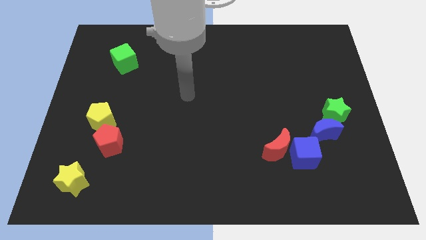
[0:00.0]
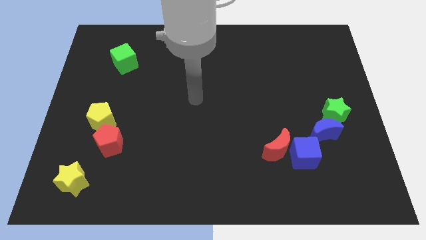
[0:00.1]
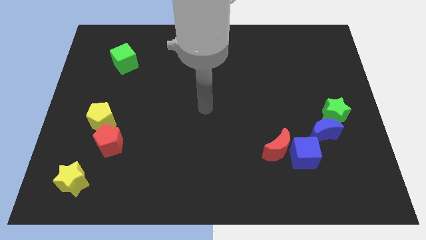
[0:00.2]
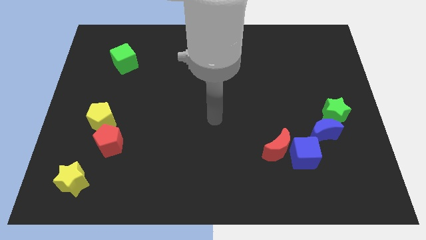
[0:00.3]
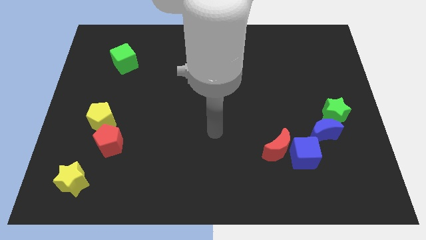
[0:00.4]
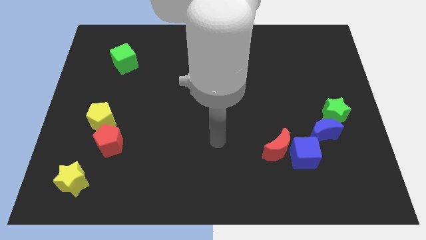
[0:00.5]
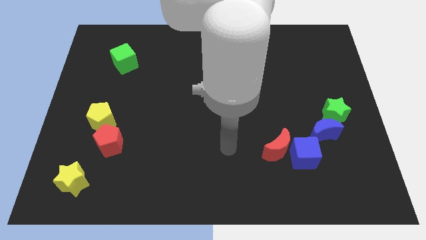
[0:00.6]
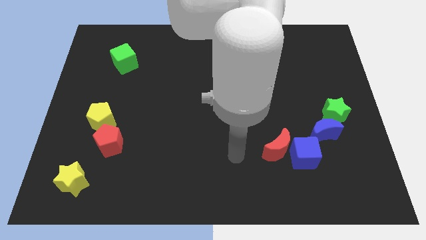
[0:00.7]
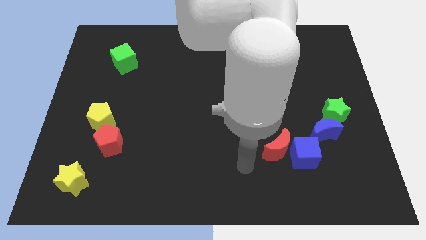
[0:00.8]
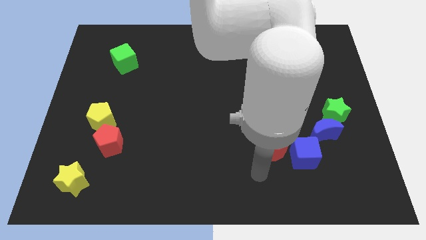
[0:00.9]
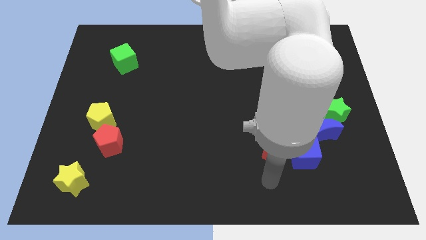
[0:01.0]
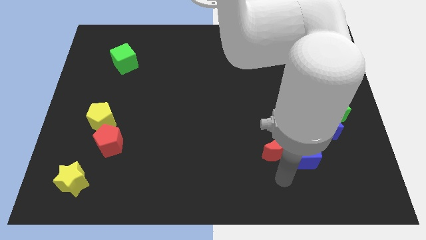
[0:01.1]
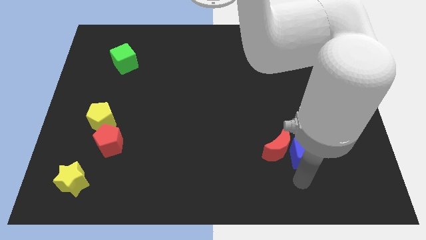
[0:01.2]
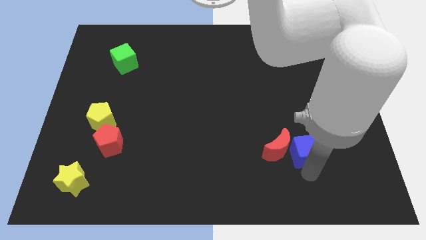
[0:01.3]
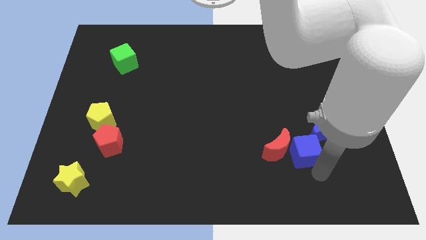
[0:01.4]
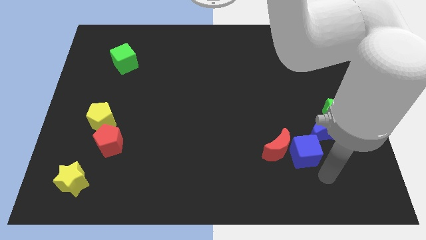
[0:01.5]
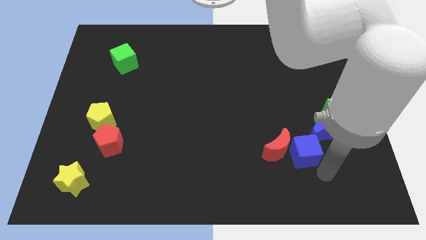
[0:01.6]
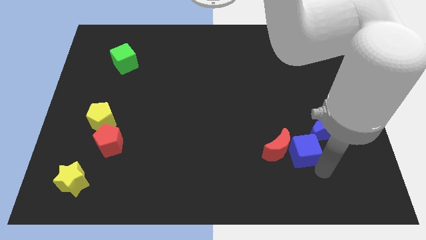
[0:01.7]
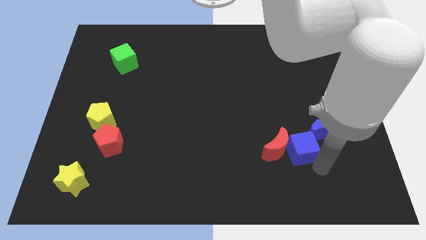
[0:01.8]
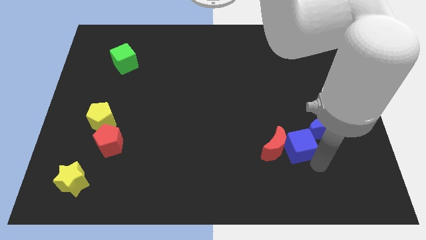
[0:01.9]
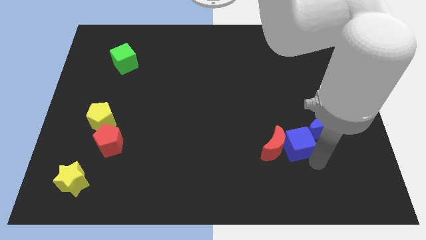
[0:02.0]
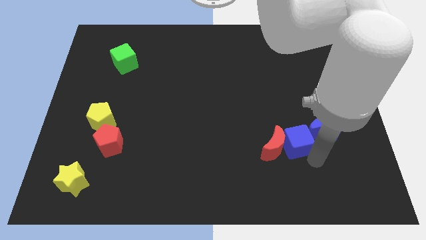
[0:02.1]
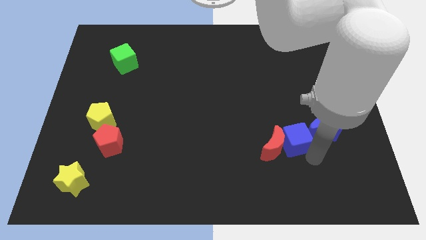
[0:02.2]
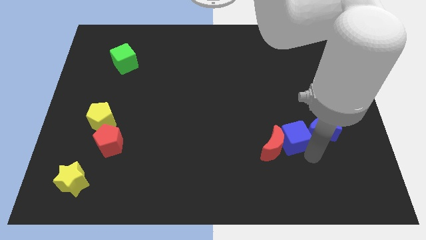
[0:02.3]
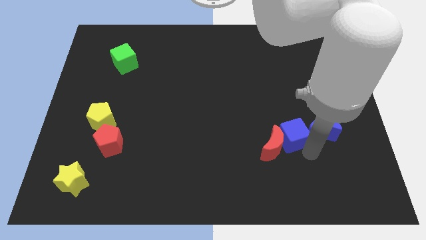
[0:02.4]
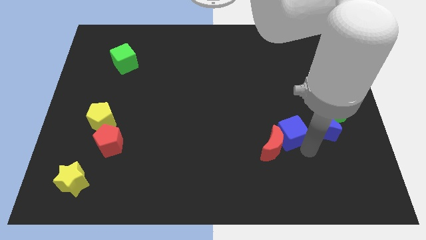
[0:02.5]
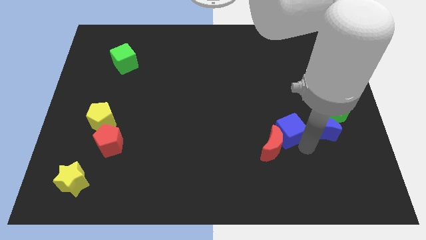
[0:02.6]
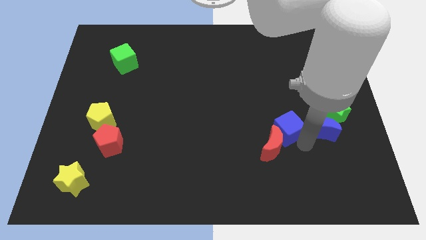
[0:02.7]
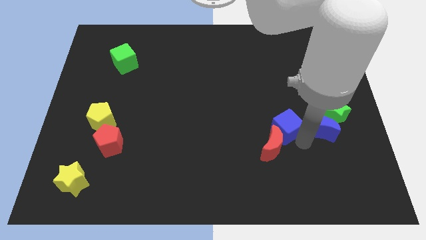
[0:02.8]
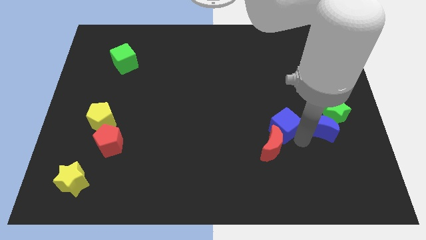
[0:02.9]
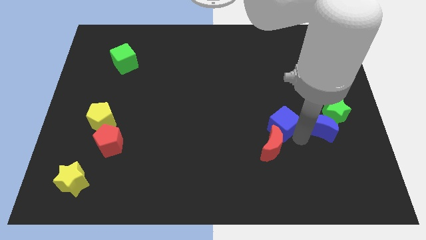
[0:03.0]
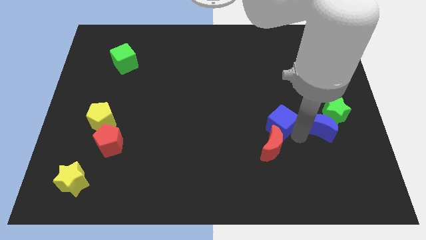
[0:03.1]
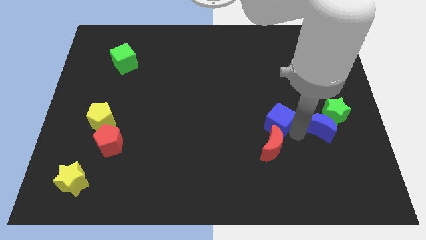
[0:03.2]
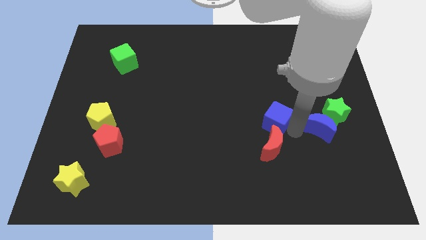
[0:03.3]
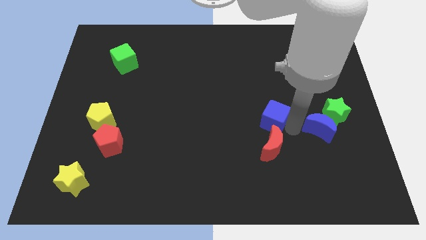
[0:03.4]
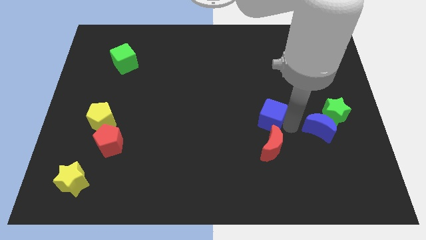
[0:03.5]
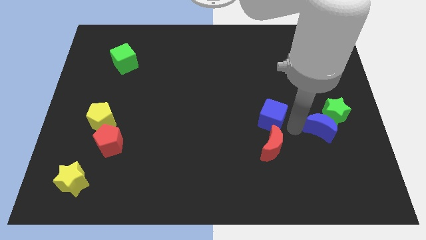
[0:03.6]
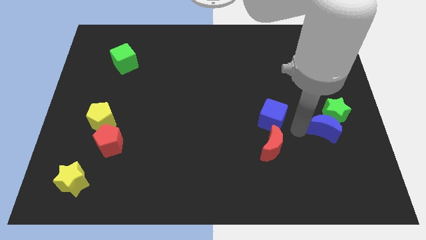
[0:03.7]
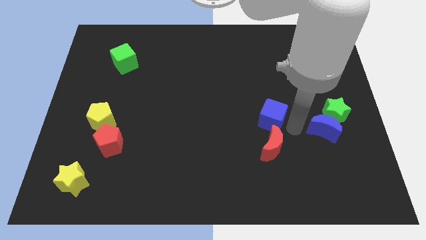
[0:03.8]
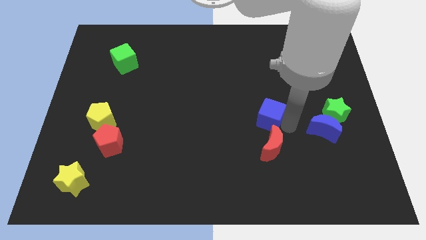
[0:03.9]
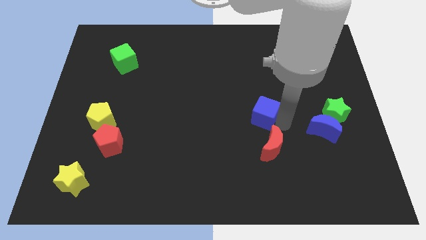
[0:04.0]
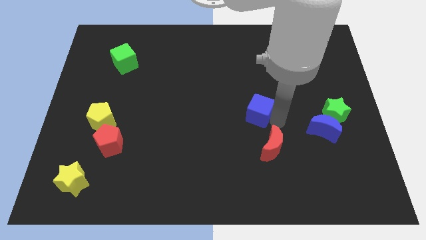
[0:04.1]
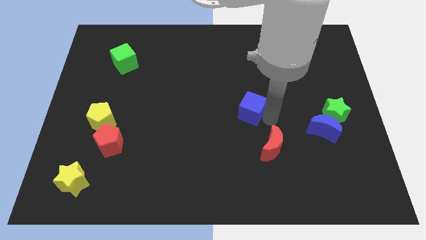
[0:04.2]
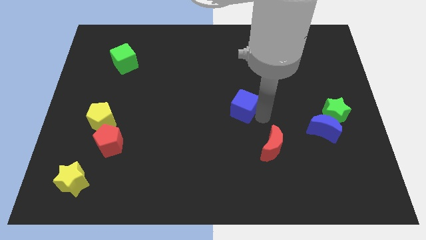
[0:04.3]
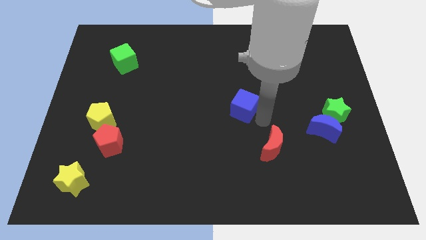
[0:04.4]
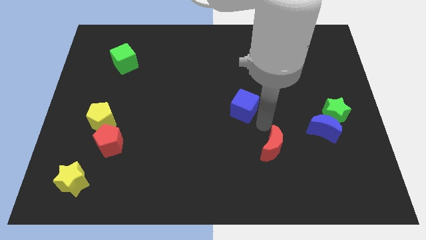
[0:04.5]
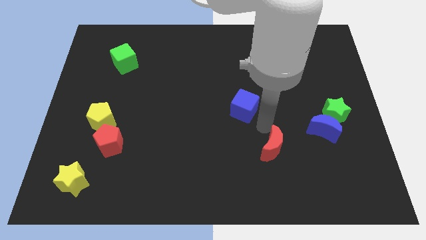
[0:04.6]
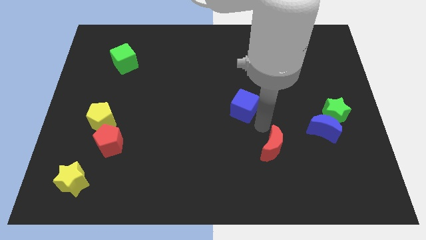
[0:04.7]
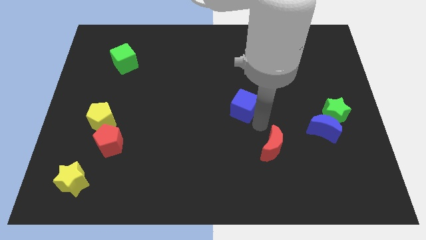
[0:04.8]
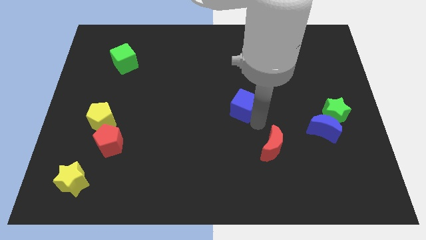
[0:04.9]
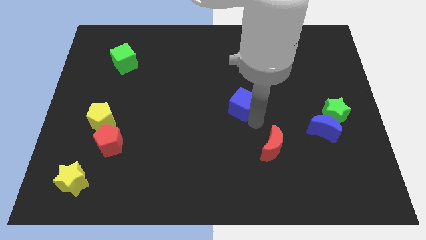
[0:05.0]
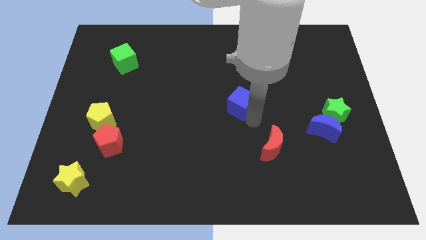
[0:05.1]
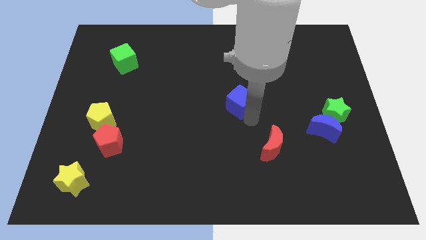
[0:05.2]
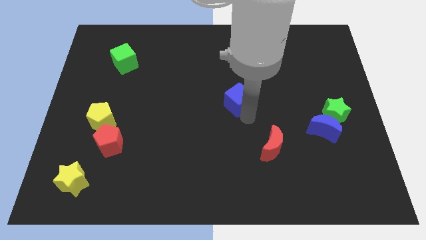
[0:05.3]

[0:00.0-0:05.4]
push the blue cube up and left diagonally

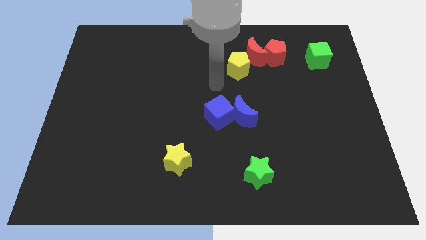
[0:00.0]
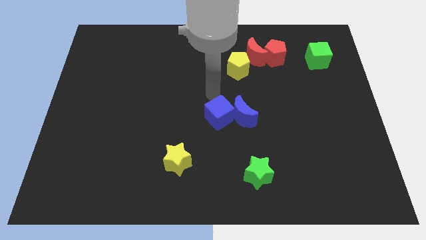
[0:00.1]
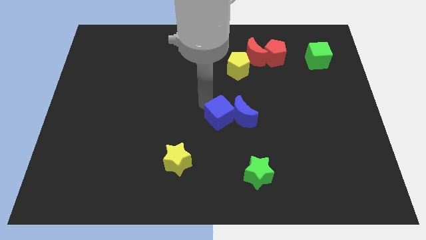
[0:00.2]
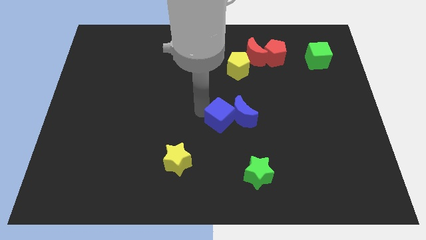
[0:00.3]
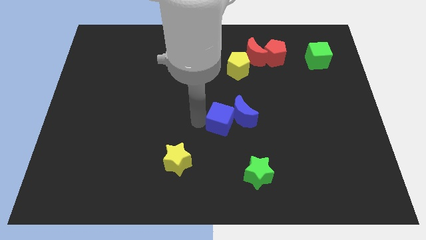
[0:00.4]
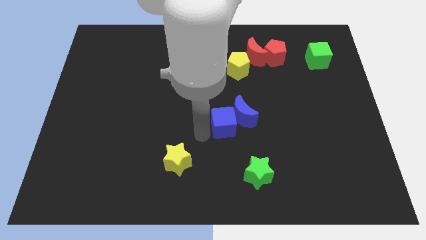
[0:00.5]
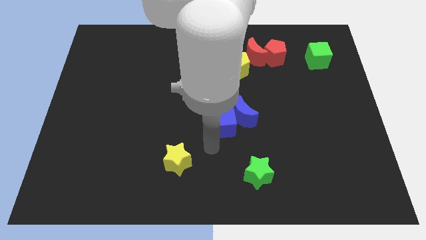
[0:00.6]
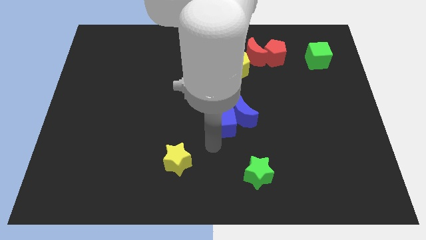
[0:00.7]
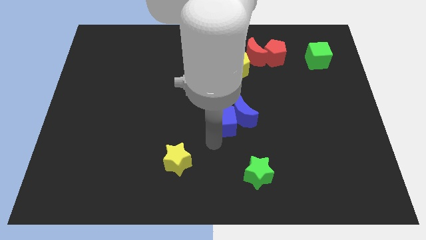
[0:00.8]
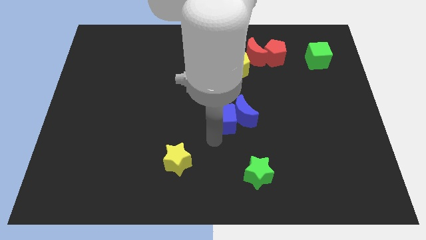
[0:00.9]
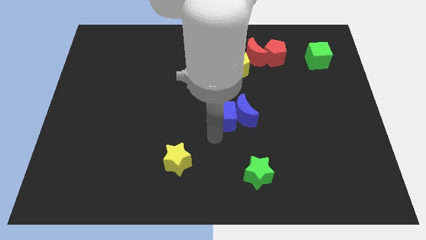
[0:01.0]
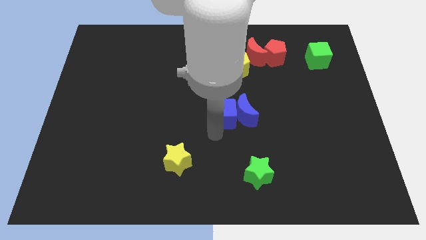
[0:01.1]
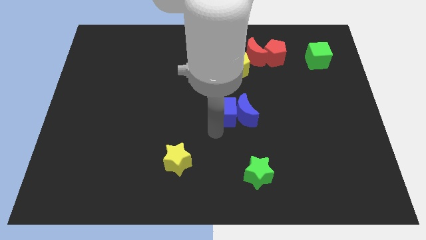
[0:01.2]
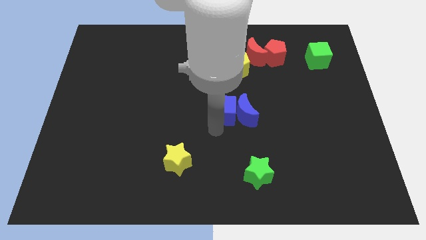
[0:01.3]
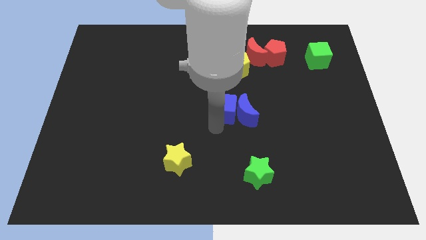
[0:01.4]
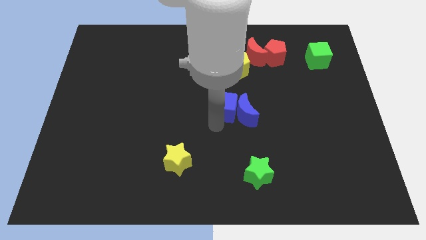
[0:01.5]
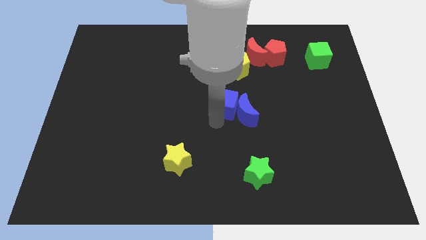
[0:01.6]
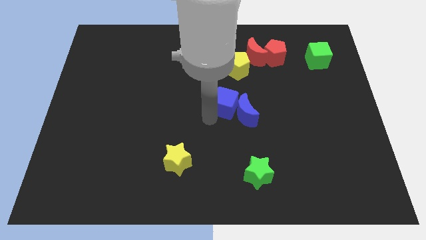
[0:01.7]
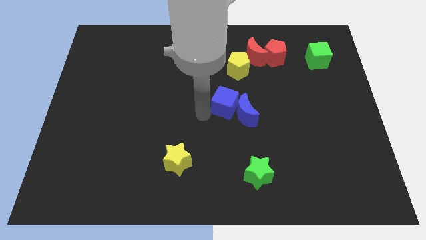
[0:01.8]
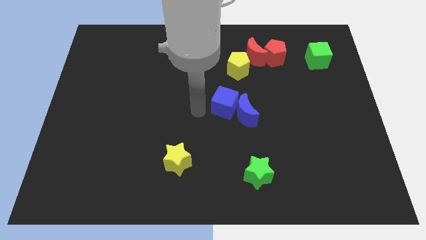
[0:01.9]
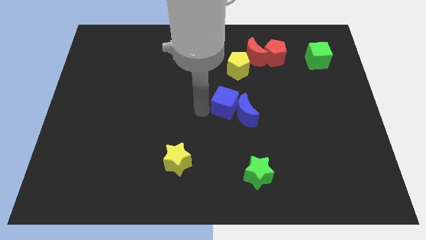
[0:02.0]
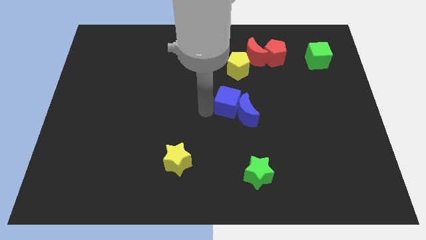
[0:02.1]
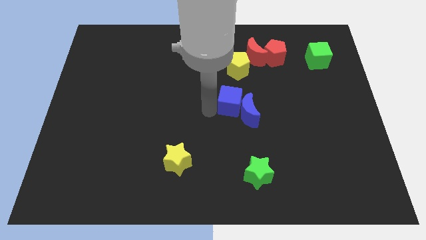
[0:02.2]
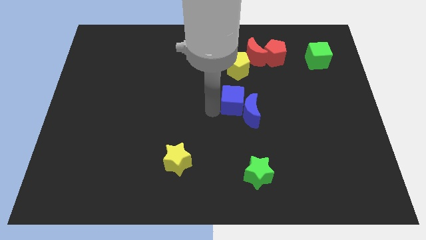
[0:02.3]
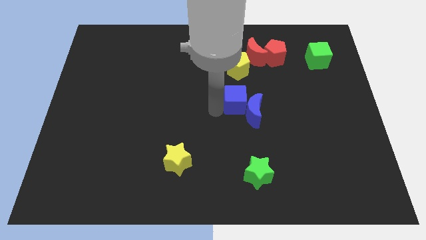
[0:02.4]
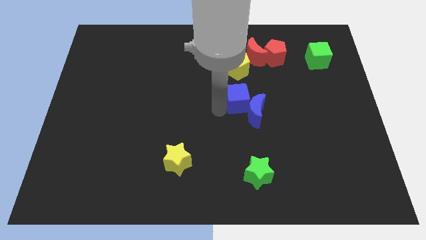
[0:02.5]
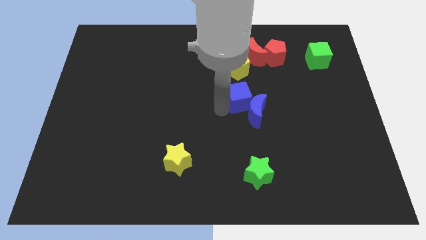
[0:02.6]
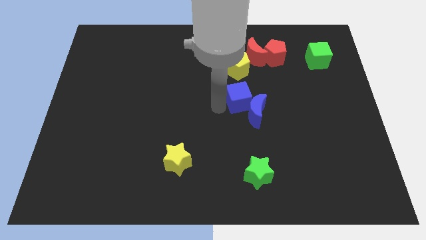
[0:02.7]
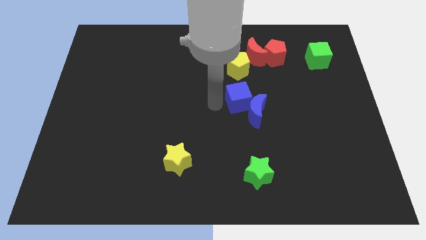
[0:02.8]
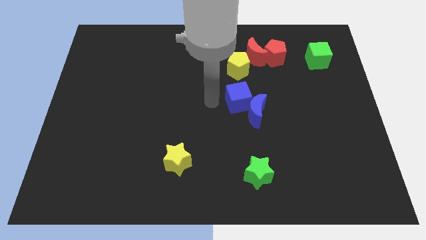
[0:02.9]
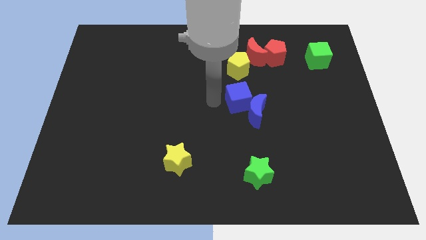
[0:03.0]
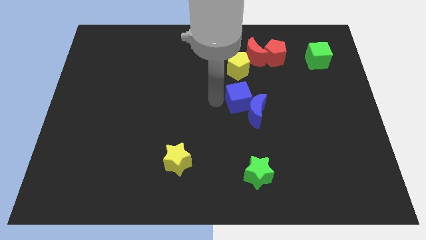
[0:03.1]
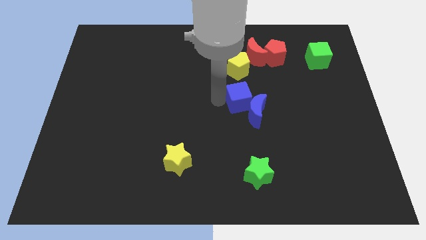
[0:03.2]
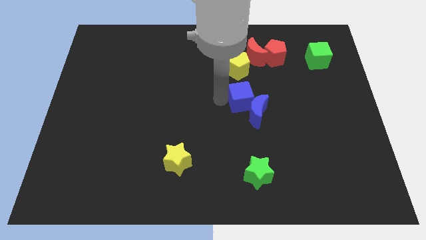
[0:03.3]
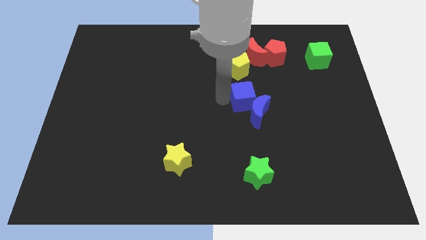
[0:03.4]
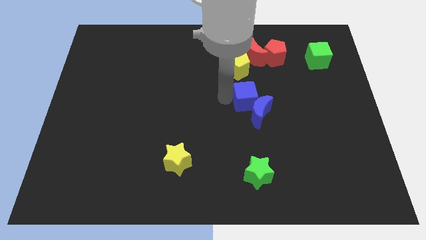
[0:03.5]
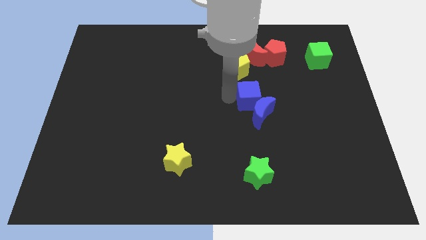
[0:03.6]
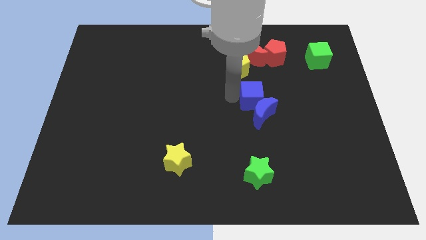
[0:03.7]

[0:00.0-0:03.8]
slightly push the blue cube to the right
